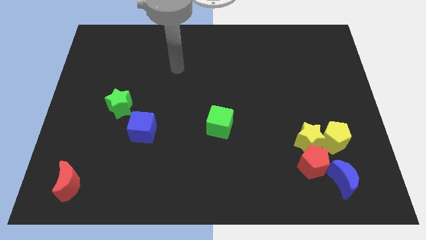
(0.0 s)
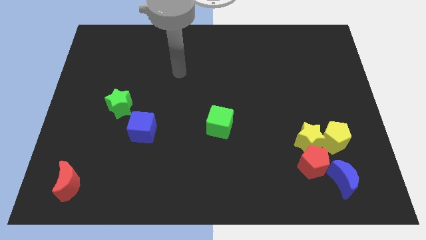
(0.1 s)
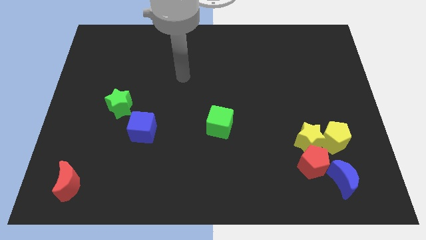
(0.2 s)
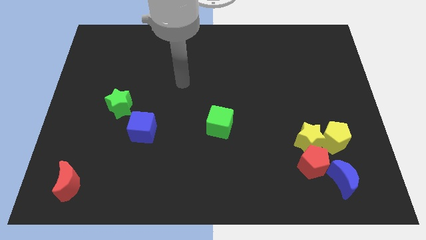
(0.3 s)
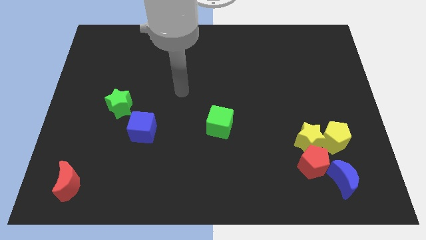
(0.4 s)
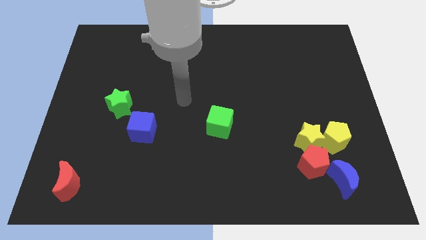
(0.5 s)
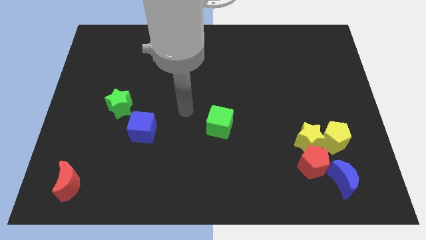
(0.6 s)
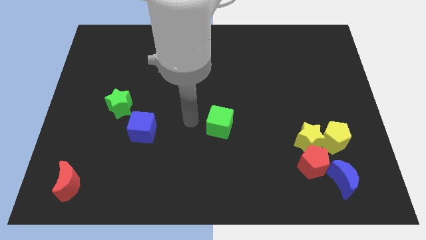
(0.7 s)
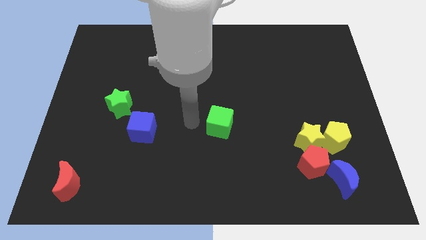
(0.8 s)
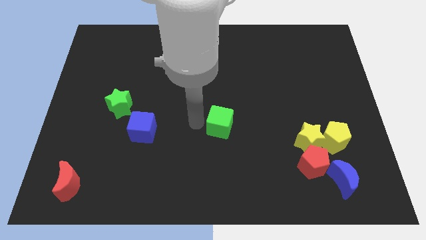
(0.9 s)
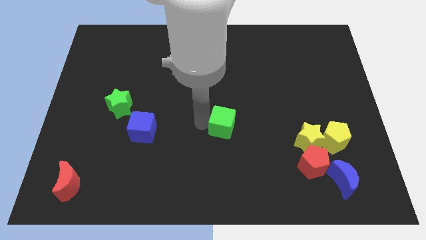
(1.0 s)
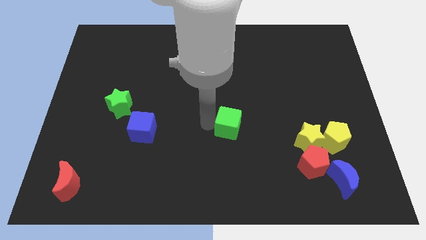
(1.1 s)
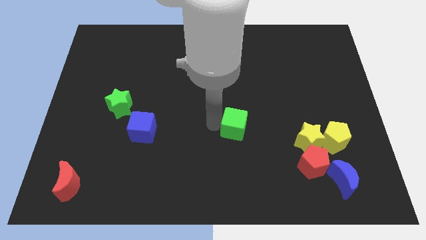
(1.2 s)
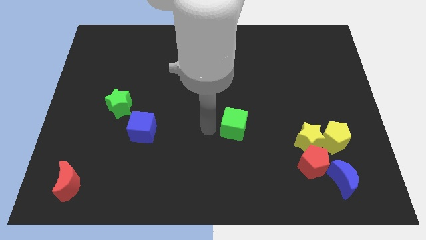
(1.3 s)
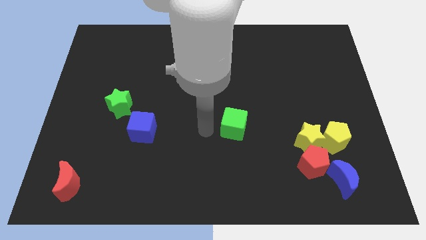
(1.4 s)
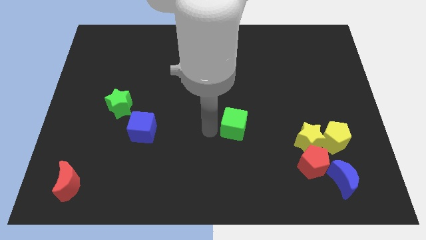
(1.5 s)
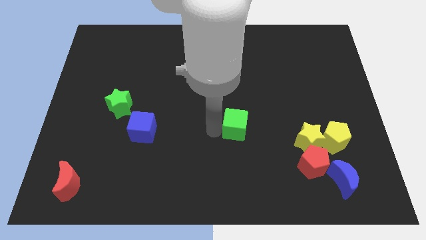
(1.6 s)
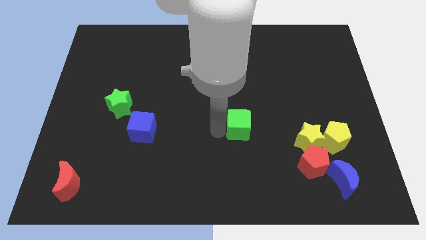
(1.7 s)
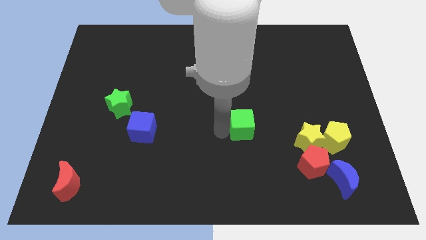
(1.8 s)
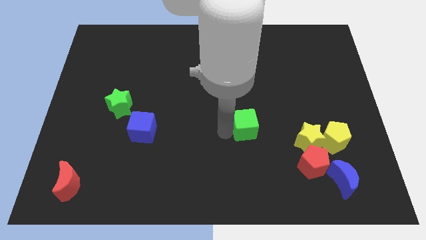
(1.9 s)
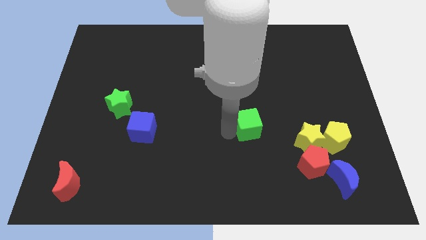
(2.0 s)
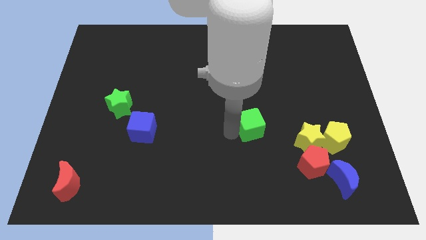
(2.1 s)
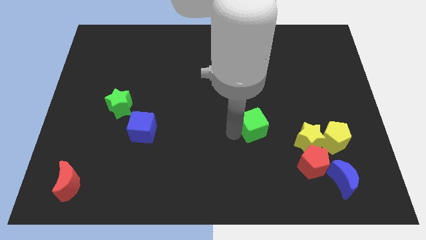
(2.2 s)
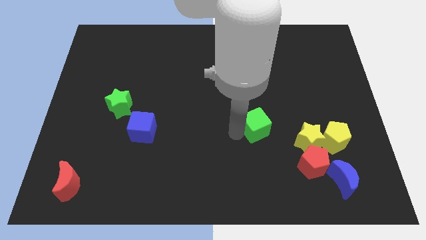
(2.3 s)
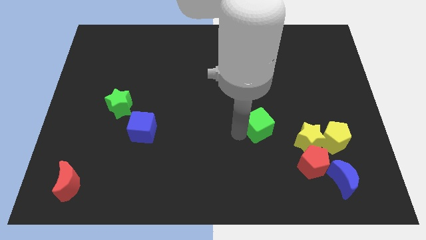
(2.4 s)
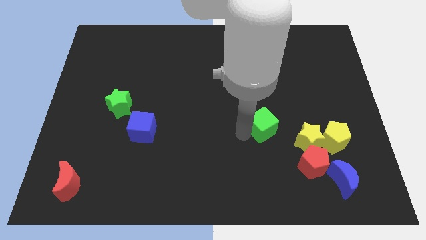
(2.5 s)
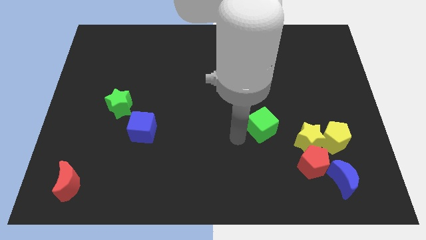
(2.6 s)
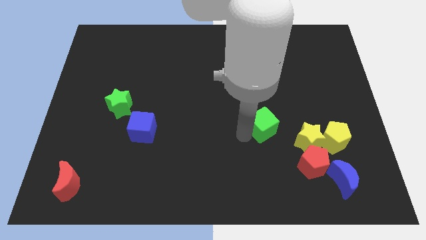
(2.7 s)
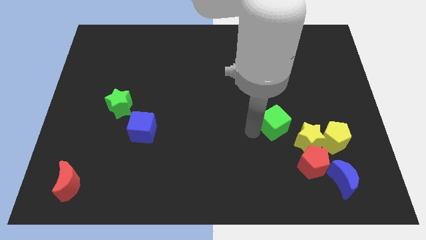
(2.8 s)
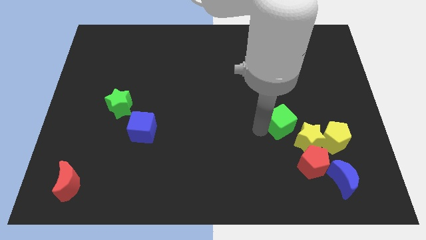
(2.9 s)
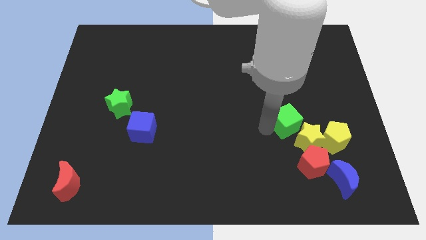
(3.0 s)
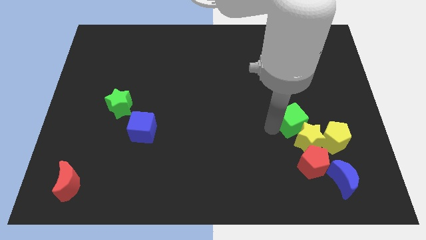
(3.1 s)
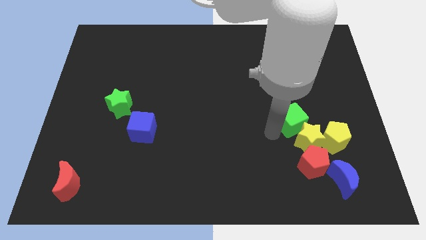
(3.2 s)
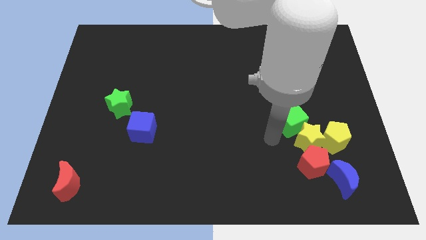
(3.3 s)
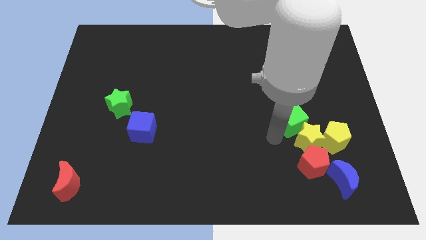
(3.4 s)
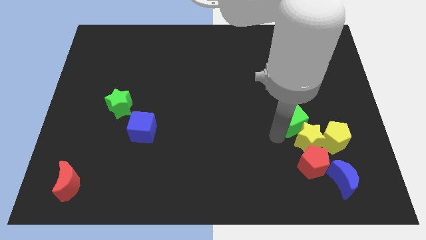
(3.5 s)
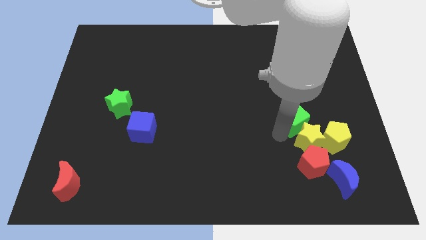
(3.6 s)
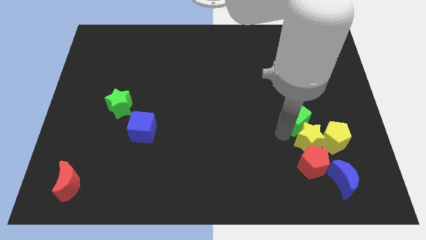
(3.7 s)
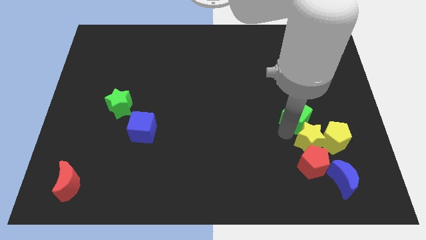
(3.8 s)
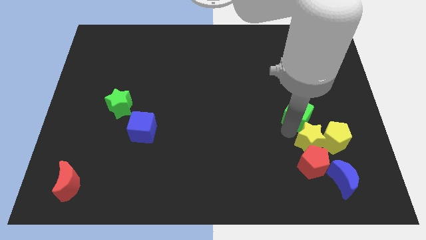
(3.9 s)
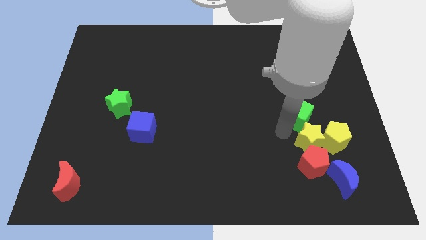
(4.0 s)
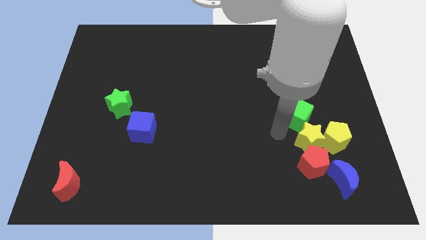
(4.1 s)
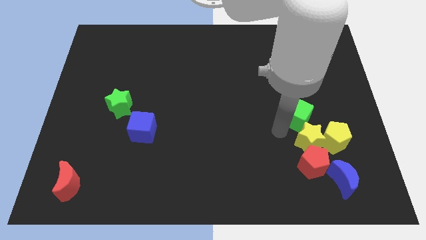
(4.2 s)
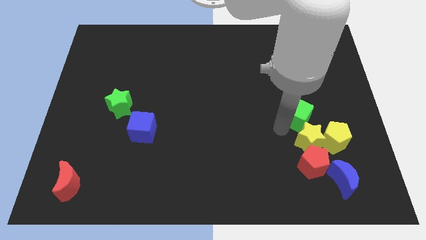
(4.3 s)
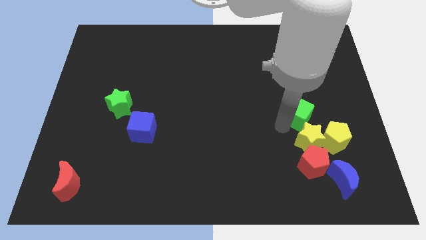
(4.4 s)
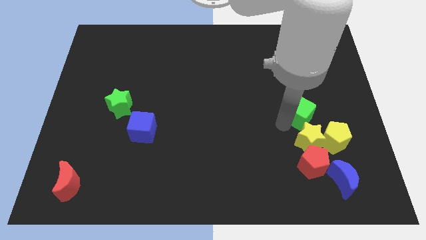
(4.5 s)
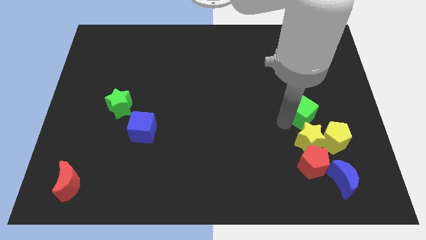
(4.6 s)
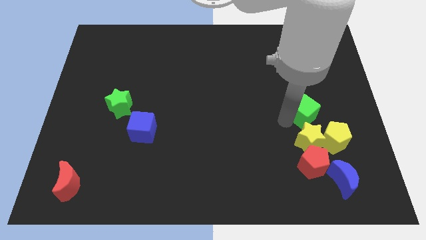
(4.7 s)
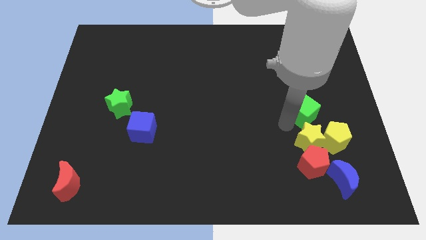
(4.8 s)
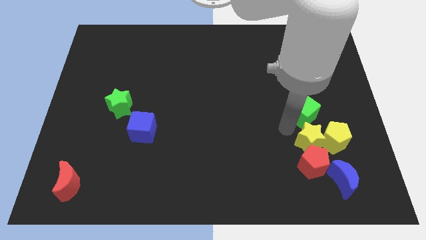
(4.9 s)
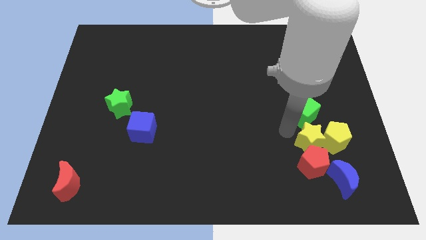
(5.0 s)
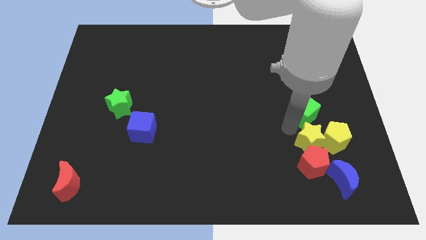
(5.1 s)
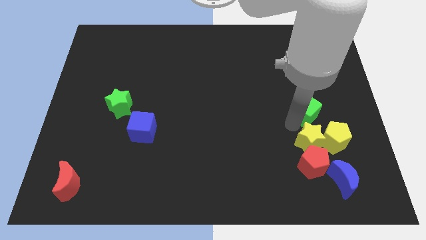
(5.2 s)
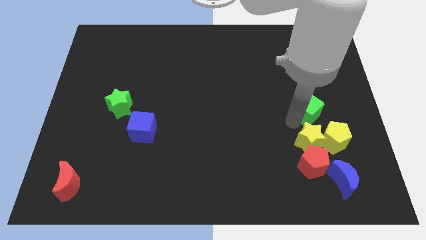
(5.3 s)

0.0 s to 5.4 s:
slide the green cube to the top of the yellow pentagon
